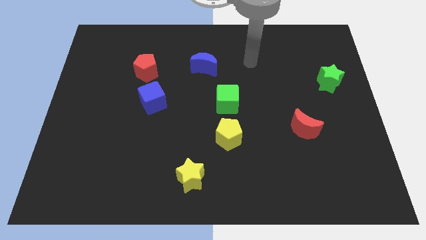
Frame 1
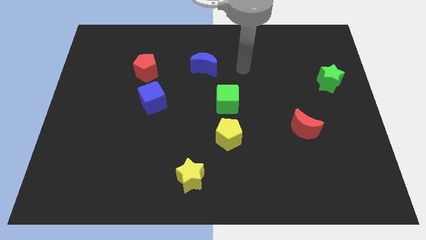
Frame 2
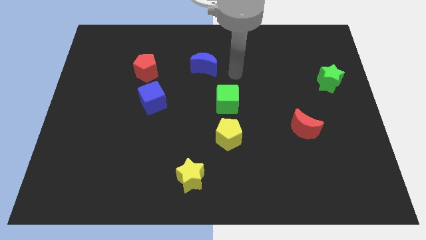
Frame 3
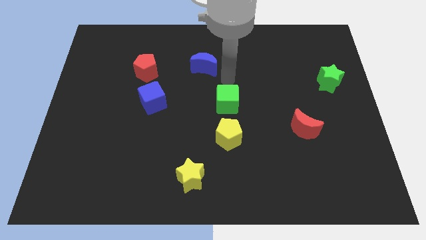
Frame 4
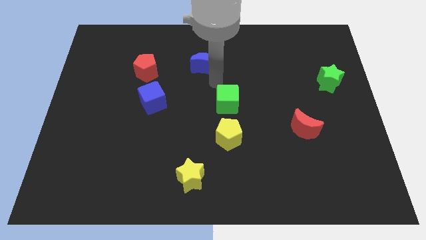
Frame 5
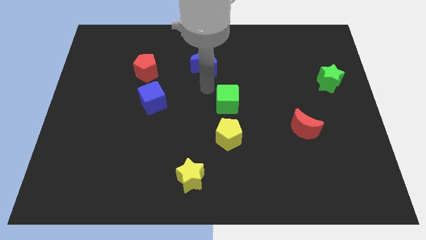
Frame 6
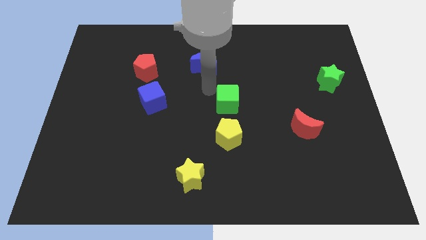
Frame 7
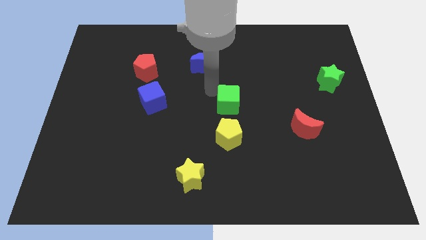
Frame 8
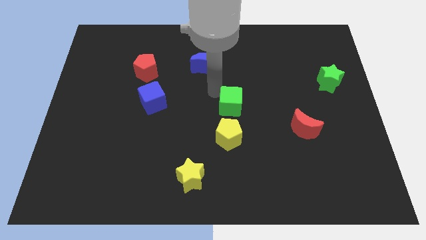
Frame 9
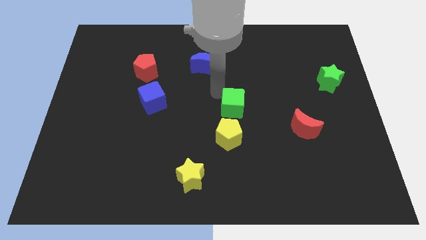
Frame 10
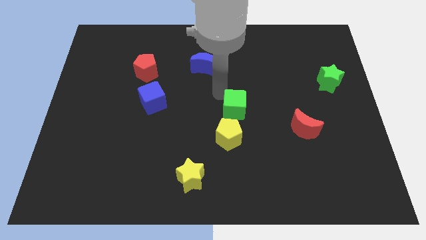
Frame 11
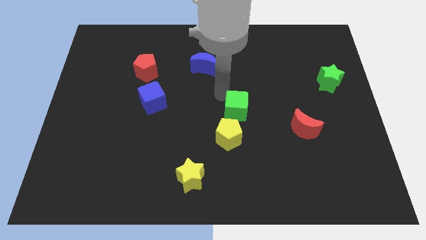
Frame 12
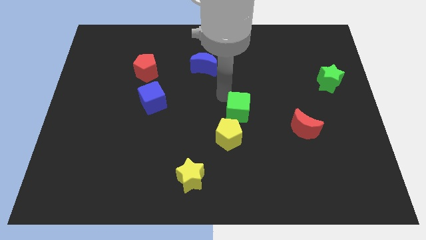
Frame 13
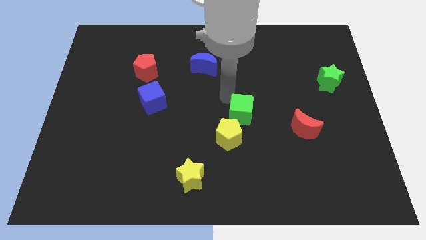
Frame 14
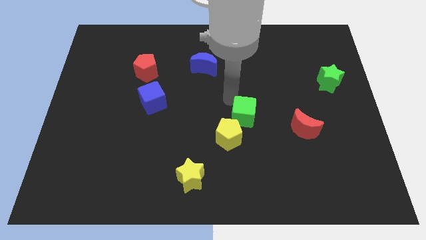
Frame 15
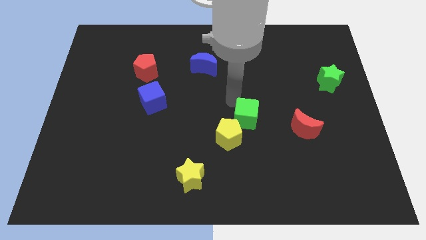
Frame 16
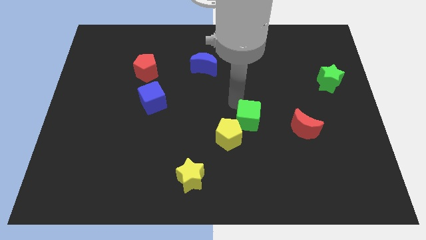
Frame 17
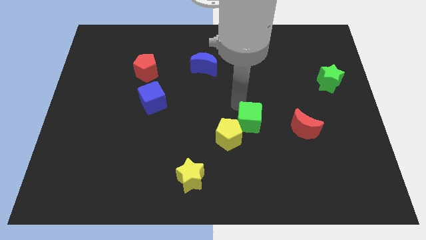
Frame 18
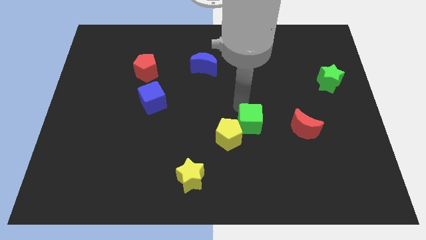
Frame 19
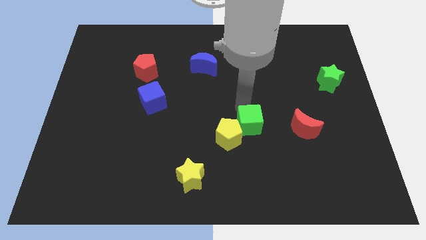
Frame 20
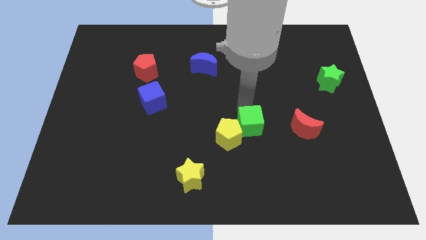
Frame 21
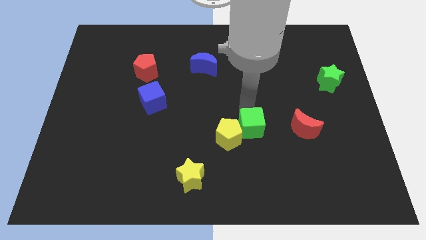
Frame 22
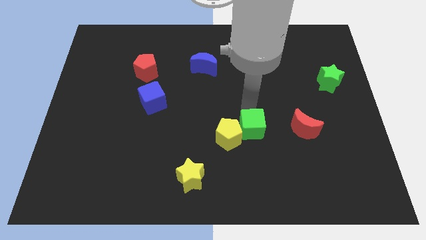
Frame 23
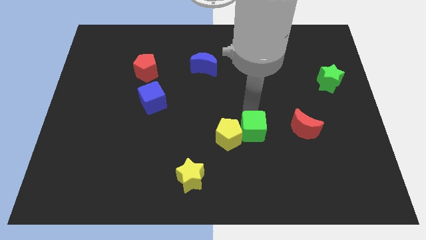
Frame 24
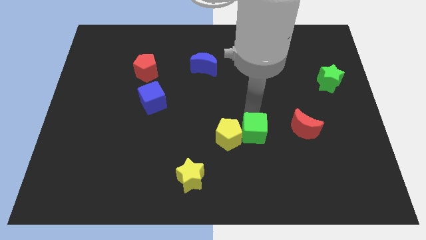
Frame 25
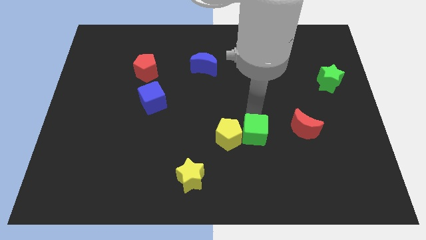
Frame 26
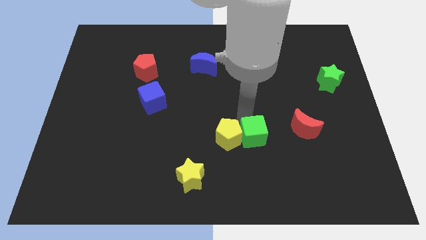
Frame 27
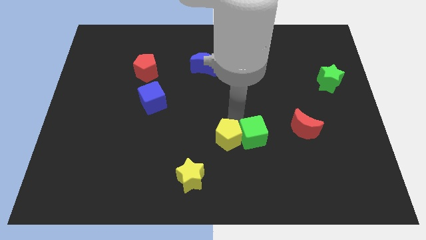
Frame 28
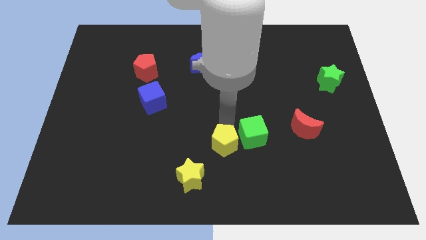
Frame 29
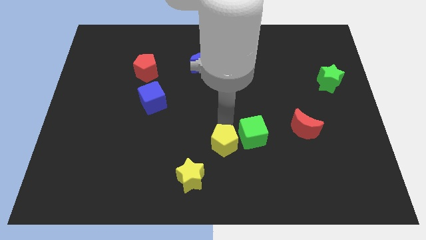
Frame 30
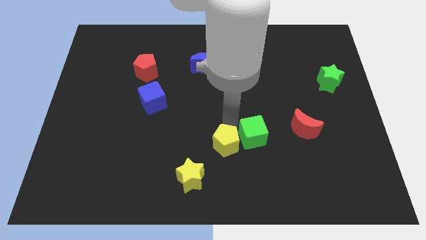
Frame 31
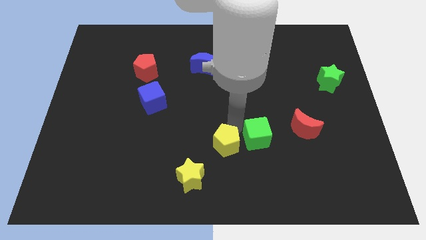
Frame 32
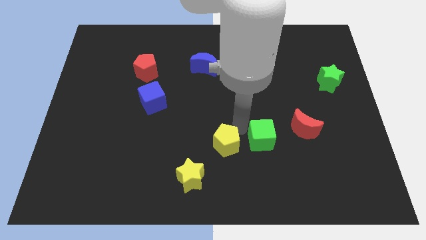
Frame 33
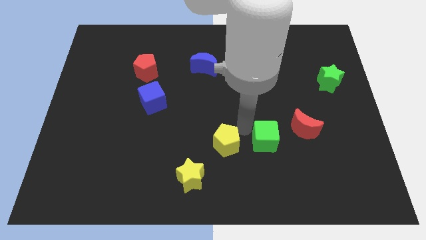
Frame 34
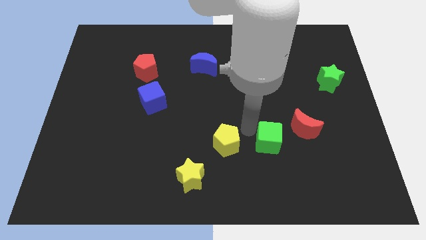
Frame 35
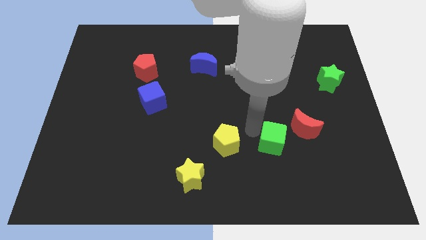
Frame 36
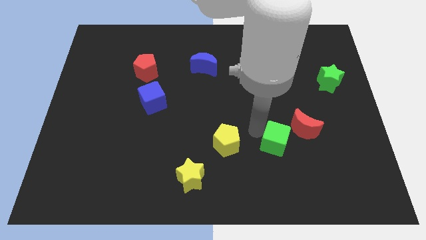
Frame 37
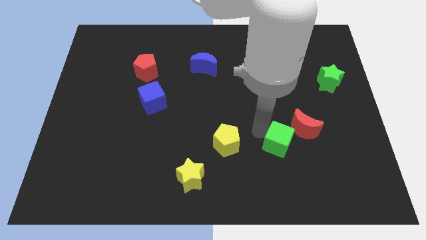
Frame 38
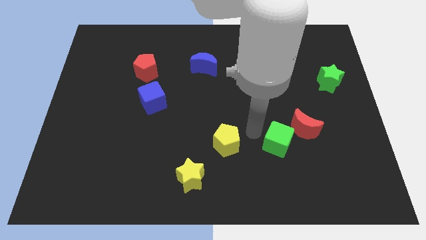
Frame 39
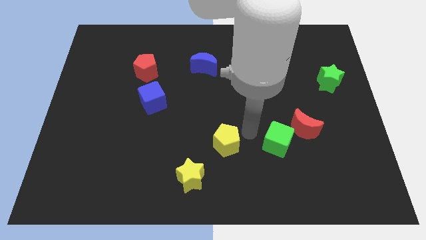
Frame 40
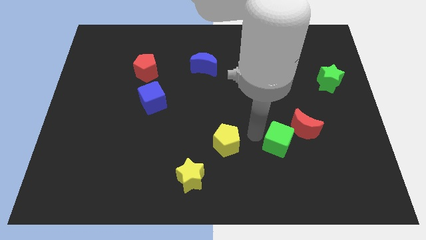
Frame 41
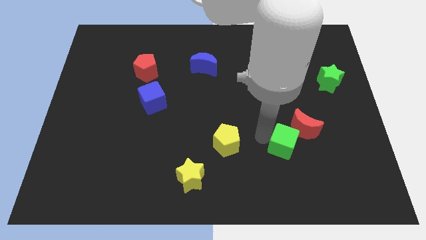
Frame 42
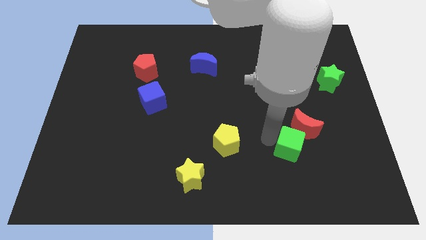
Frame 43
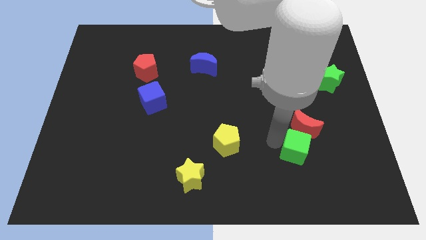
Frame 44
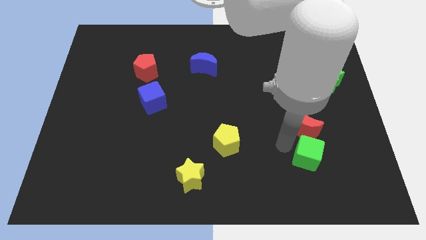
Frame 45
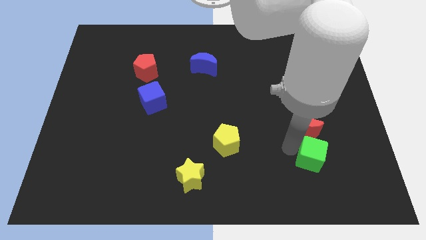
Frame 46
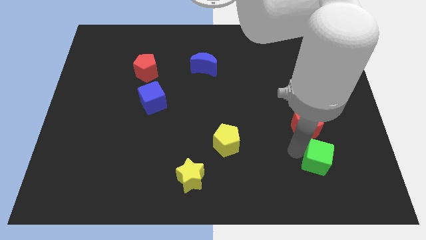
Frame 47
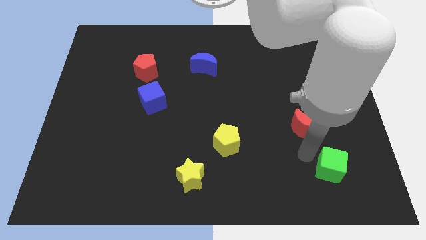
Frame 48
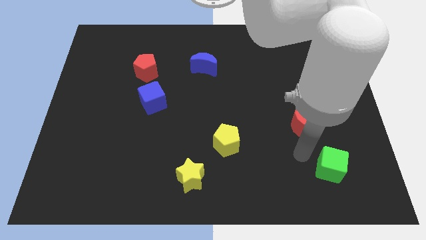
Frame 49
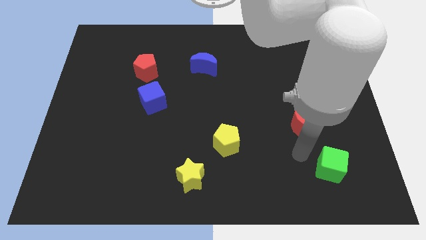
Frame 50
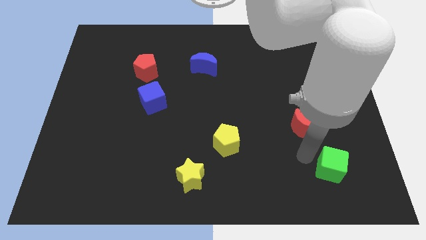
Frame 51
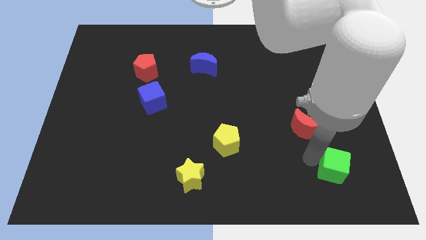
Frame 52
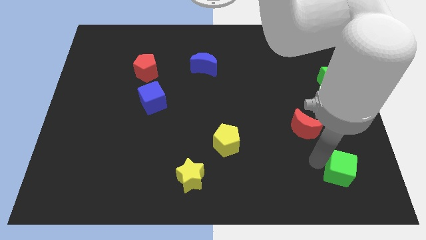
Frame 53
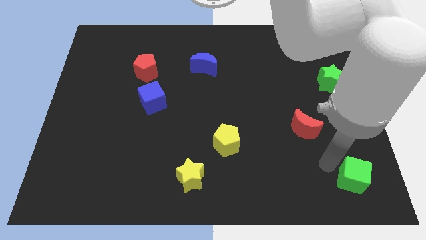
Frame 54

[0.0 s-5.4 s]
put the green cube to the lower right corner

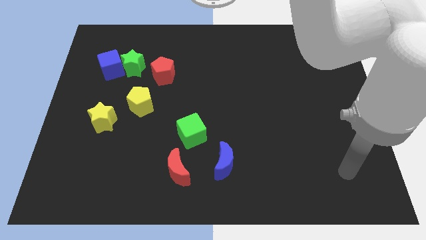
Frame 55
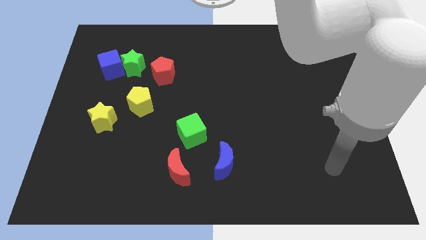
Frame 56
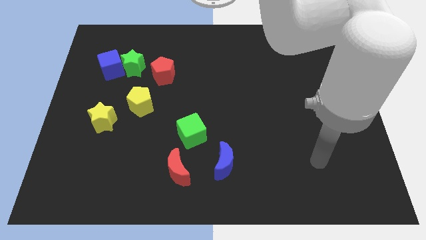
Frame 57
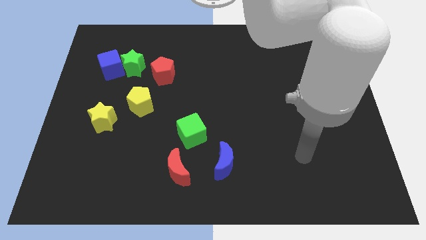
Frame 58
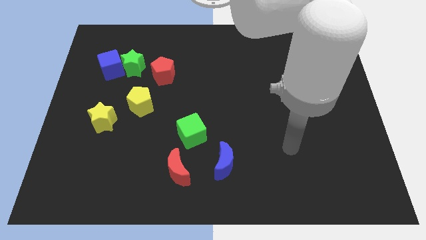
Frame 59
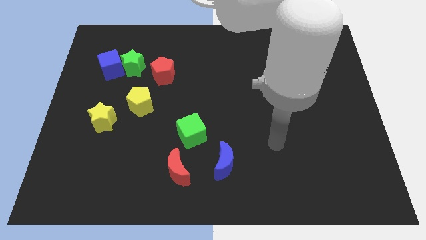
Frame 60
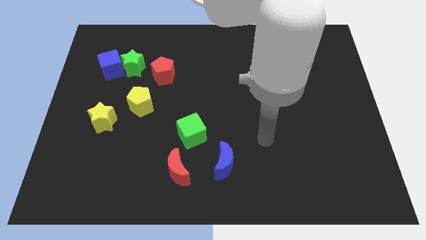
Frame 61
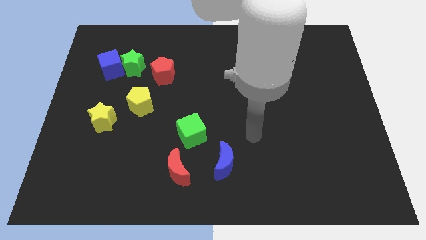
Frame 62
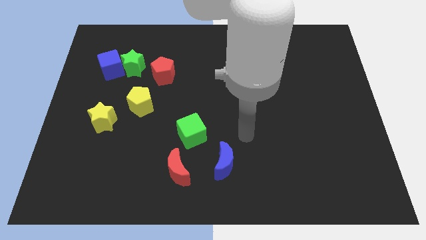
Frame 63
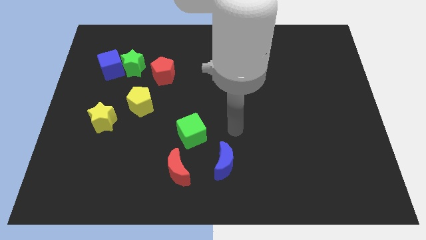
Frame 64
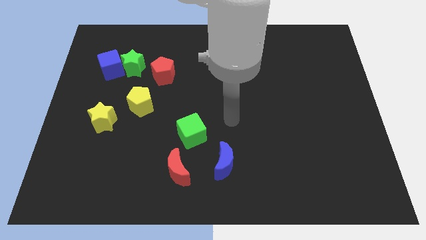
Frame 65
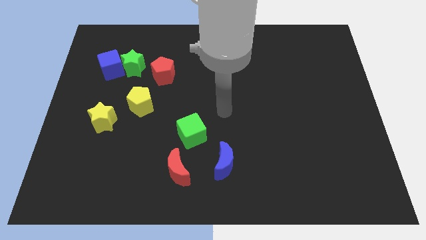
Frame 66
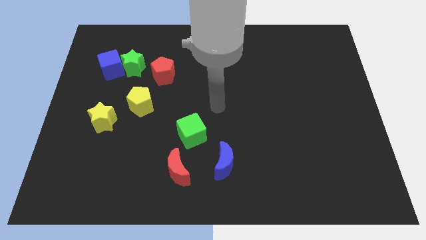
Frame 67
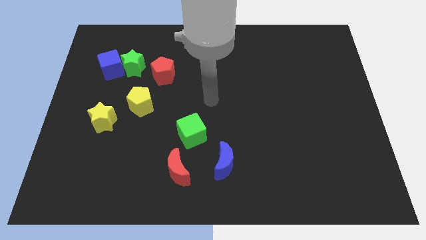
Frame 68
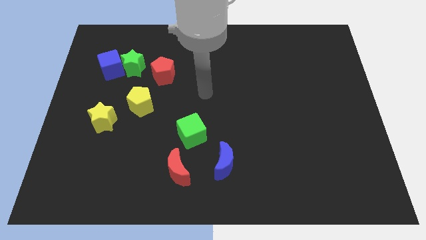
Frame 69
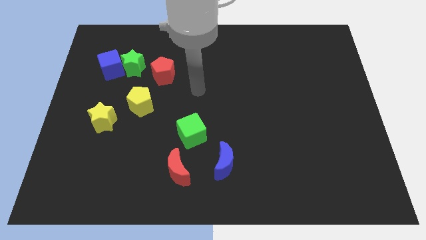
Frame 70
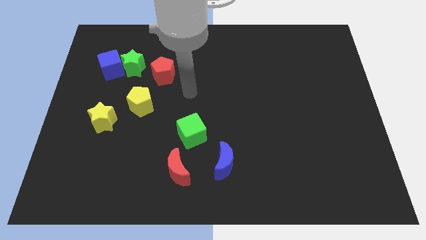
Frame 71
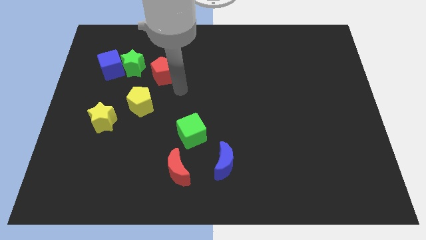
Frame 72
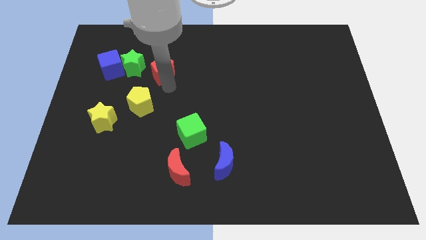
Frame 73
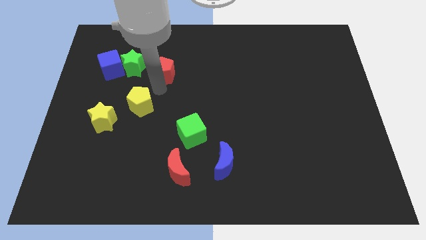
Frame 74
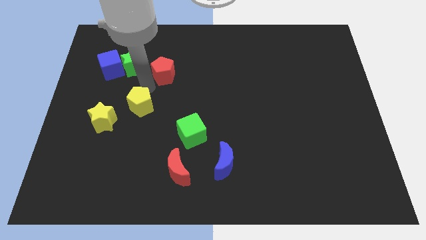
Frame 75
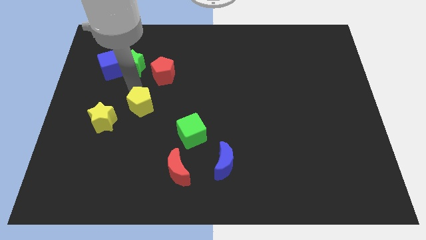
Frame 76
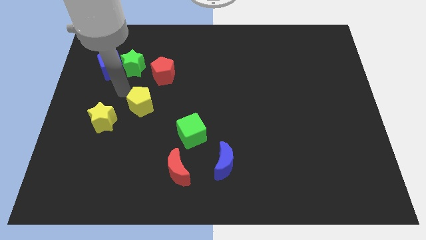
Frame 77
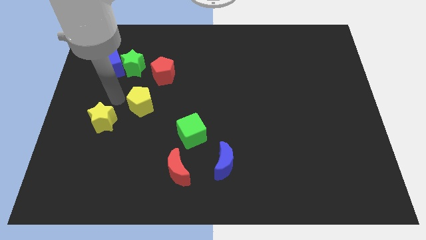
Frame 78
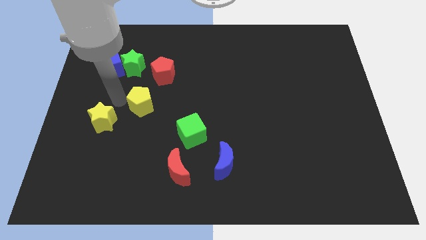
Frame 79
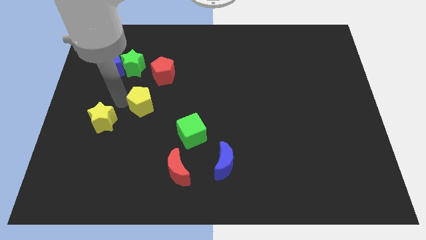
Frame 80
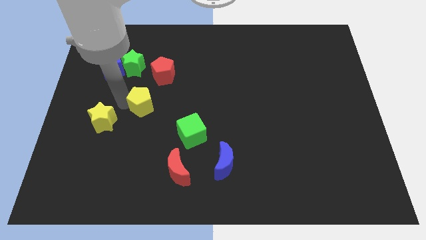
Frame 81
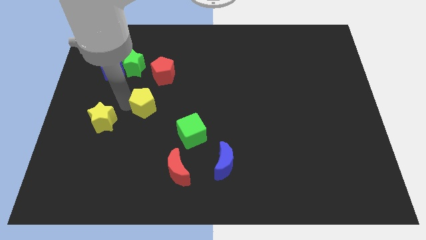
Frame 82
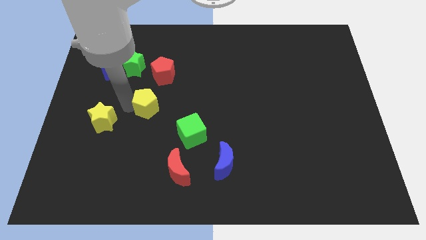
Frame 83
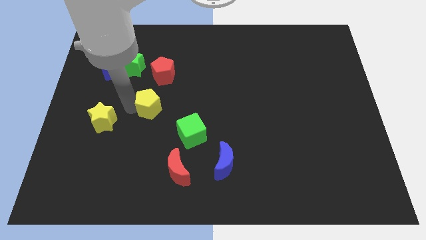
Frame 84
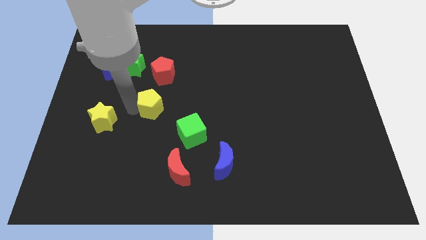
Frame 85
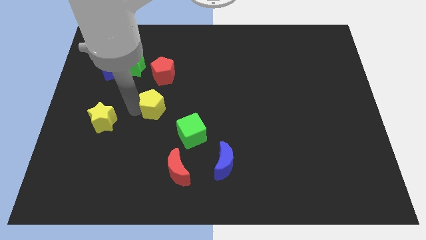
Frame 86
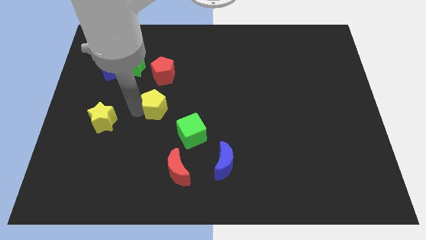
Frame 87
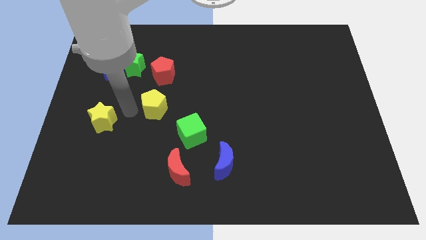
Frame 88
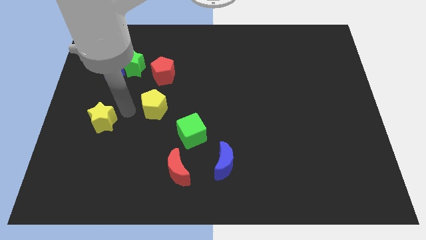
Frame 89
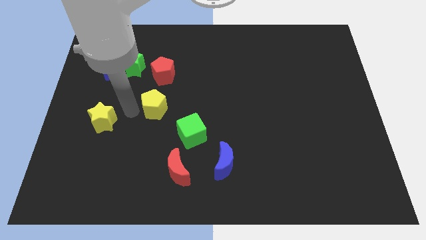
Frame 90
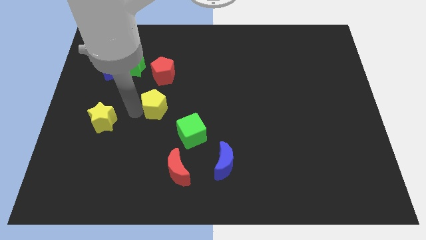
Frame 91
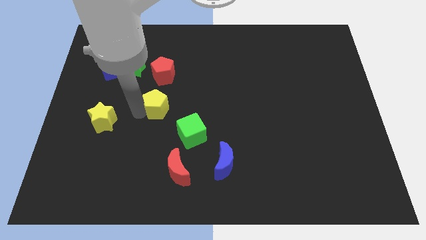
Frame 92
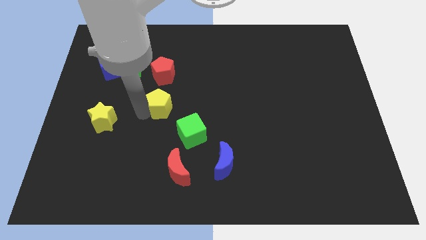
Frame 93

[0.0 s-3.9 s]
slide the yellow pentagon to the center
